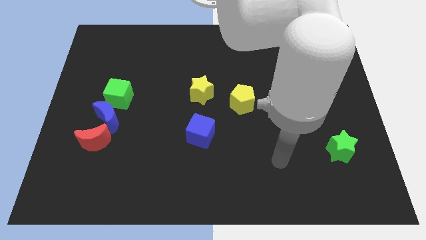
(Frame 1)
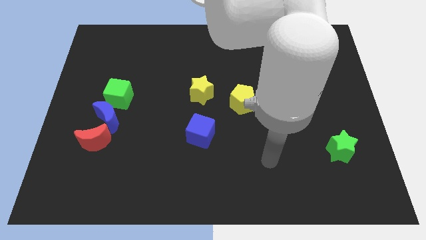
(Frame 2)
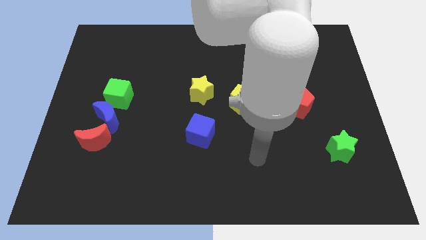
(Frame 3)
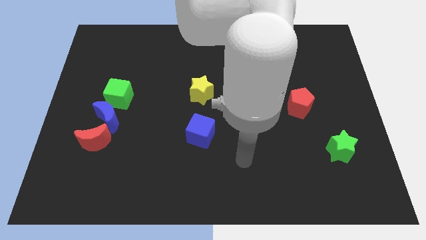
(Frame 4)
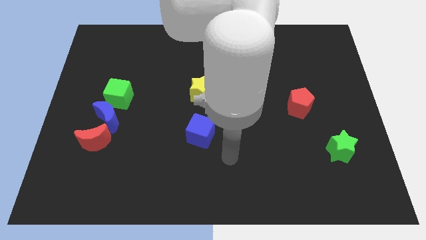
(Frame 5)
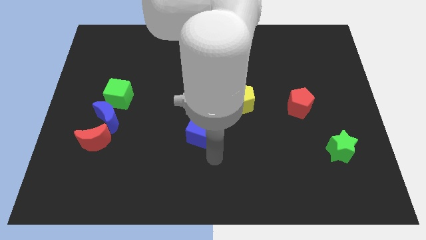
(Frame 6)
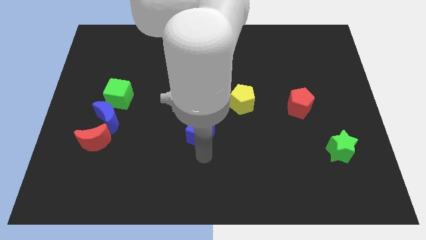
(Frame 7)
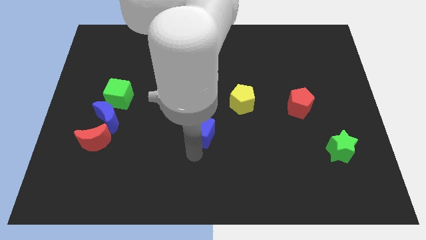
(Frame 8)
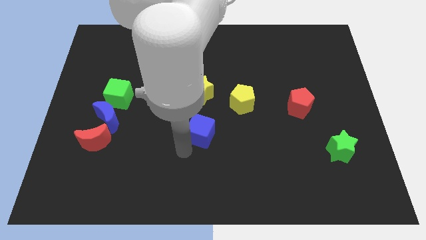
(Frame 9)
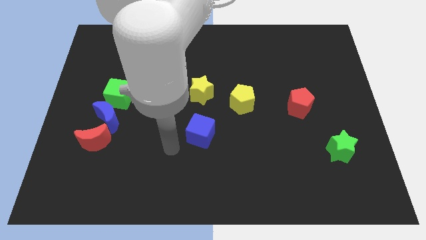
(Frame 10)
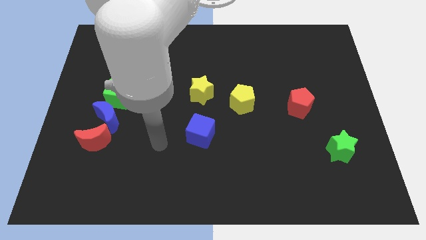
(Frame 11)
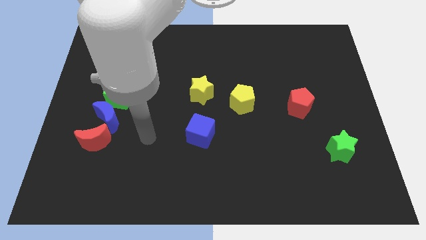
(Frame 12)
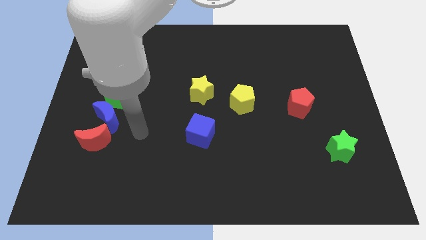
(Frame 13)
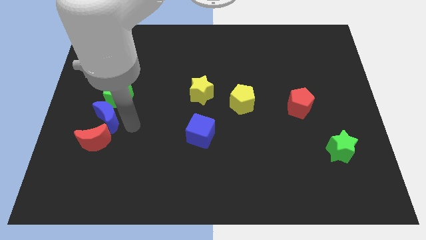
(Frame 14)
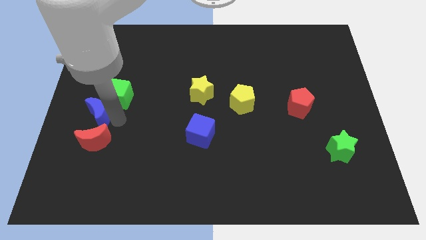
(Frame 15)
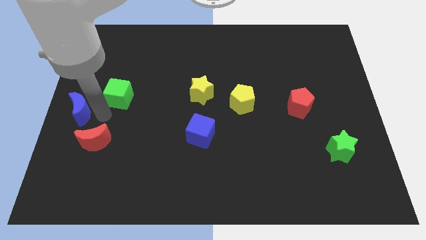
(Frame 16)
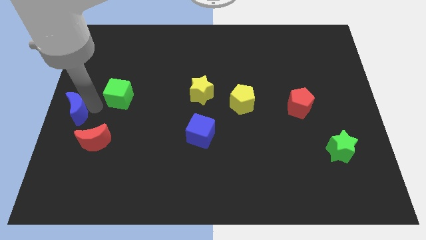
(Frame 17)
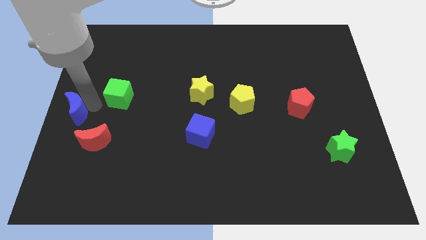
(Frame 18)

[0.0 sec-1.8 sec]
move the green cube away from the blue moon

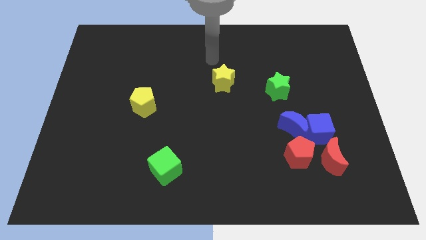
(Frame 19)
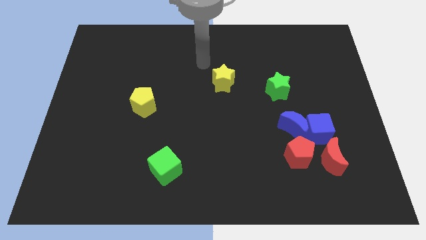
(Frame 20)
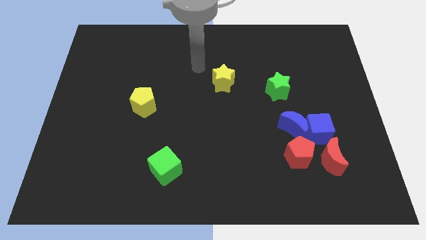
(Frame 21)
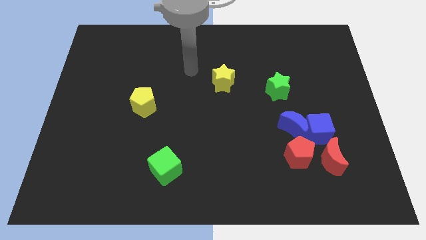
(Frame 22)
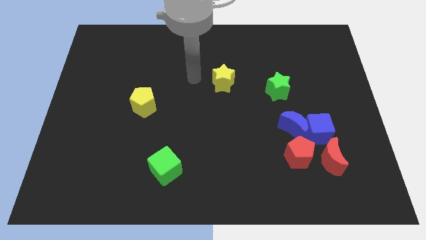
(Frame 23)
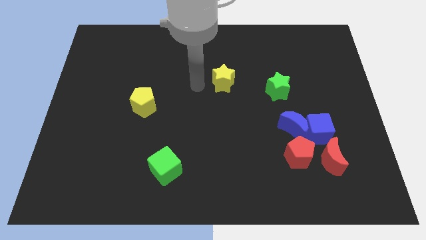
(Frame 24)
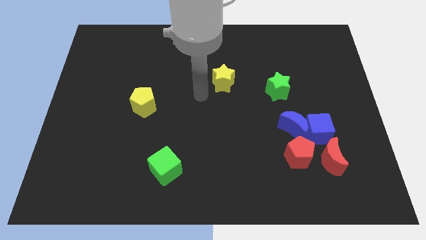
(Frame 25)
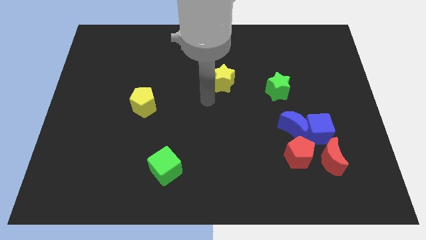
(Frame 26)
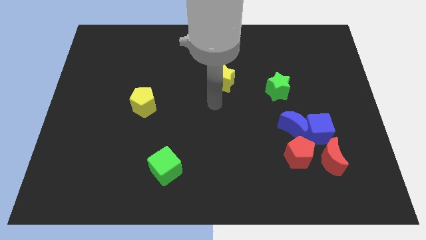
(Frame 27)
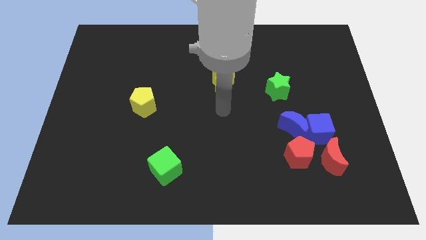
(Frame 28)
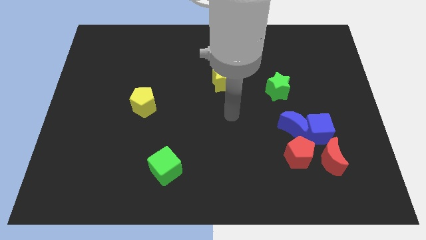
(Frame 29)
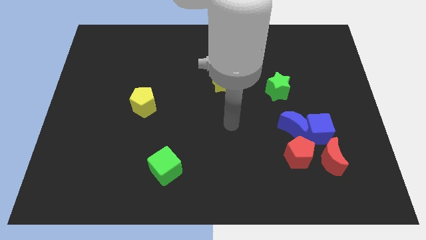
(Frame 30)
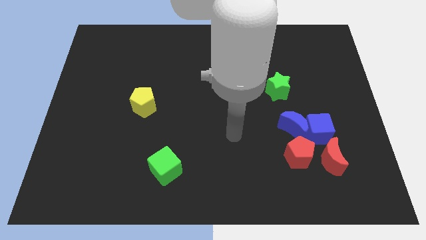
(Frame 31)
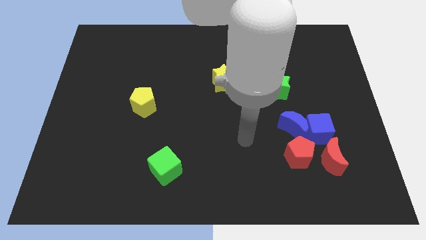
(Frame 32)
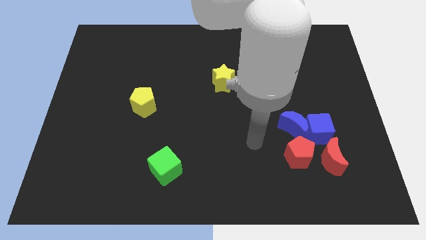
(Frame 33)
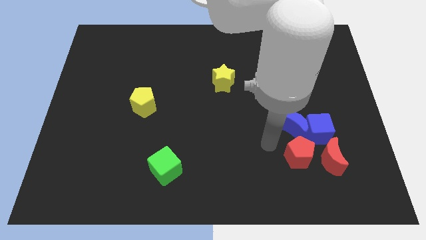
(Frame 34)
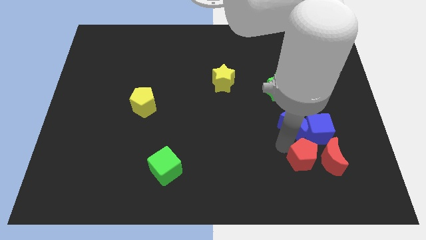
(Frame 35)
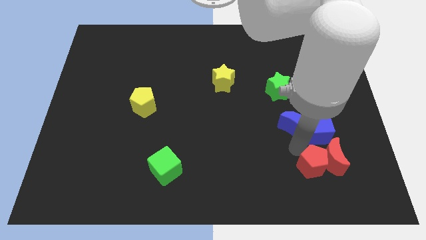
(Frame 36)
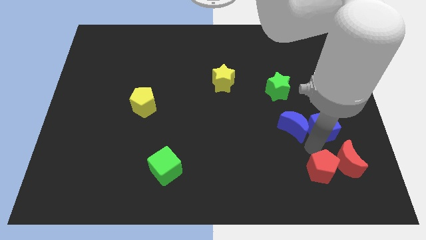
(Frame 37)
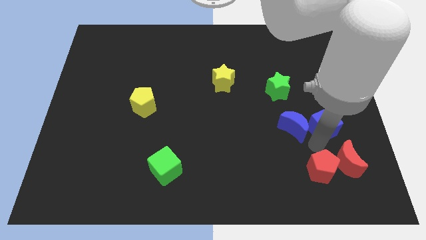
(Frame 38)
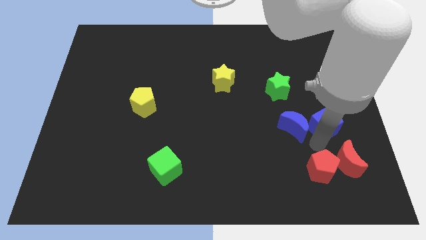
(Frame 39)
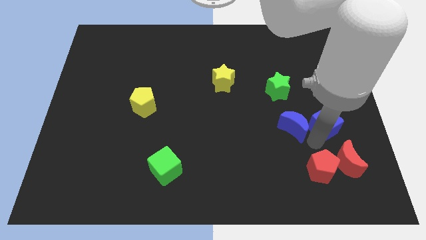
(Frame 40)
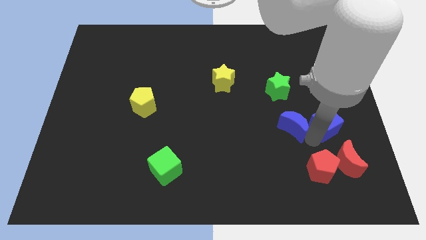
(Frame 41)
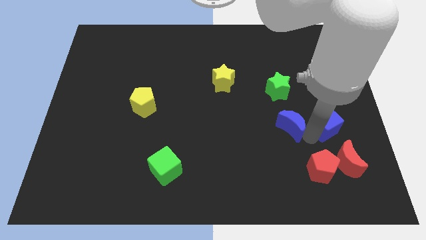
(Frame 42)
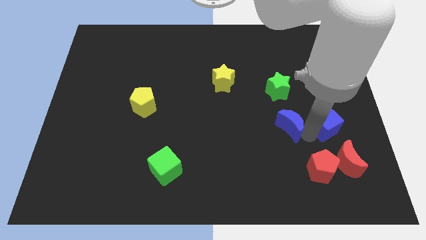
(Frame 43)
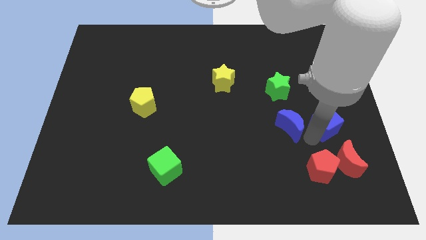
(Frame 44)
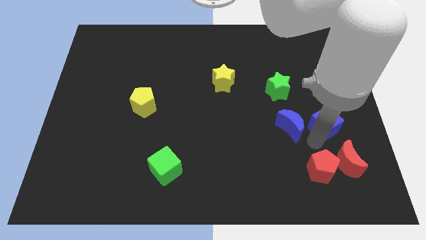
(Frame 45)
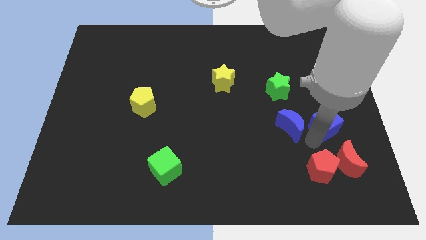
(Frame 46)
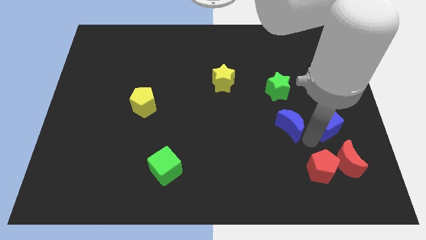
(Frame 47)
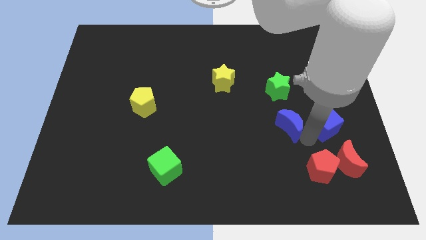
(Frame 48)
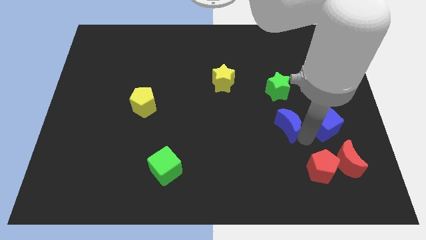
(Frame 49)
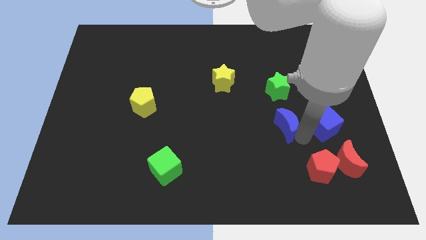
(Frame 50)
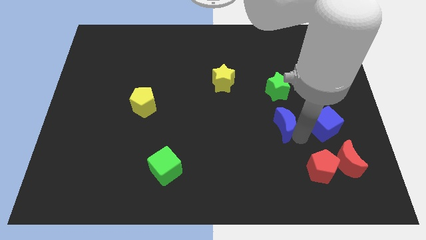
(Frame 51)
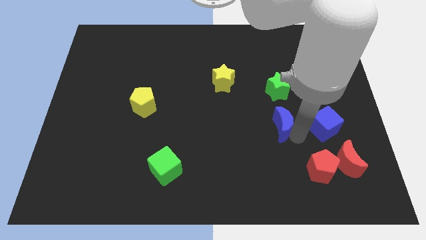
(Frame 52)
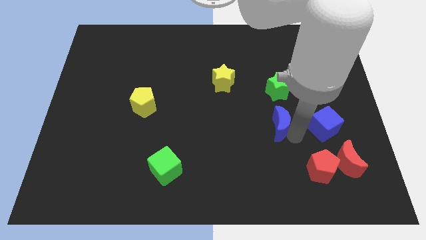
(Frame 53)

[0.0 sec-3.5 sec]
move the blue moon away from the blue cube and red pentagon

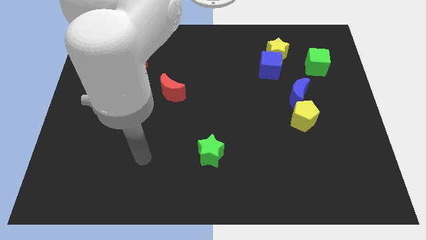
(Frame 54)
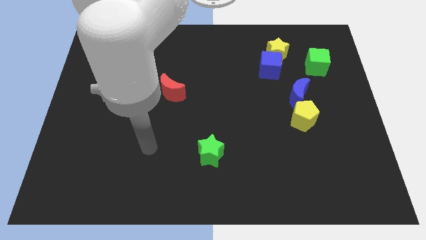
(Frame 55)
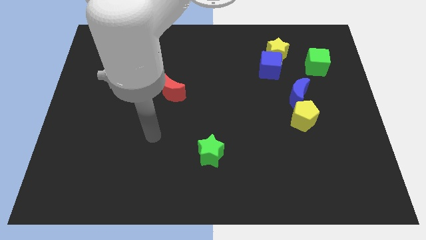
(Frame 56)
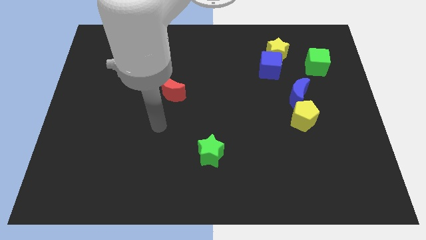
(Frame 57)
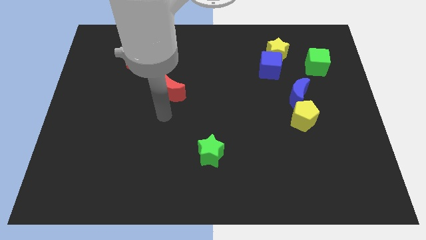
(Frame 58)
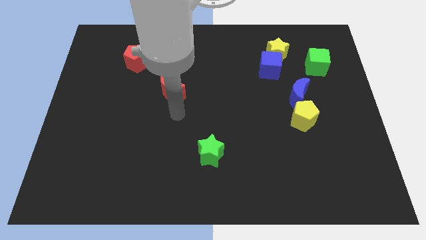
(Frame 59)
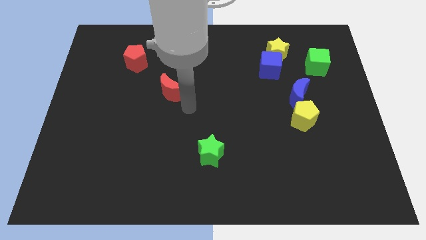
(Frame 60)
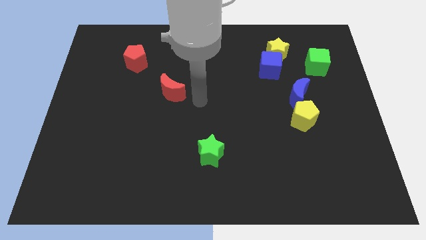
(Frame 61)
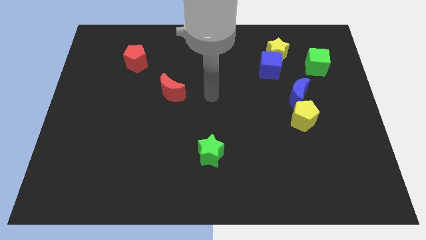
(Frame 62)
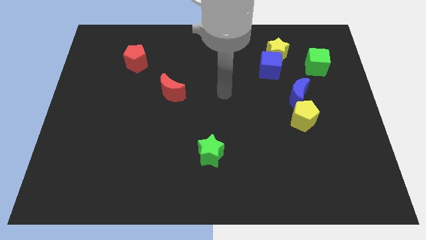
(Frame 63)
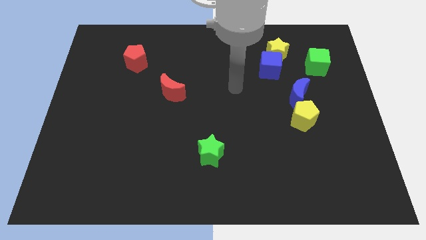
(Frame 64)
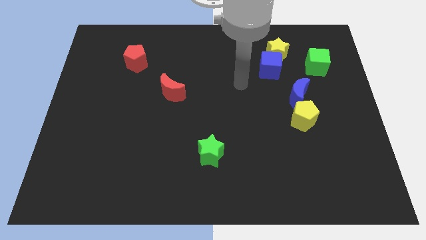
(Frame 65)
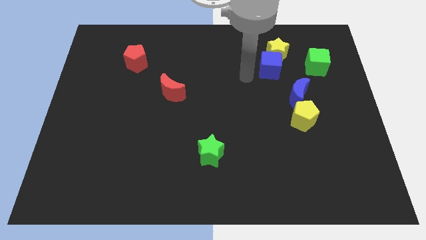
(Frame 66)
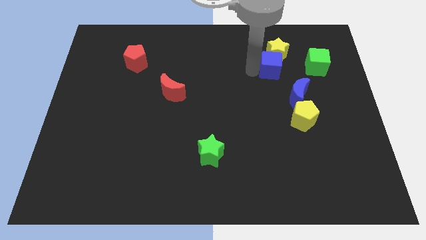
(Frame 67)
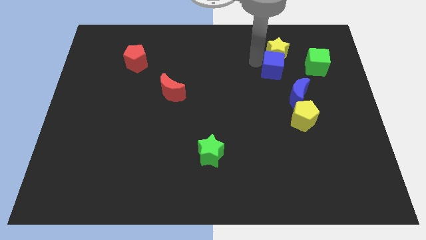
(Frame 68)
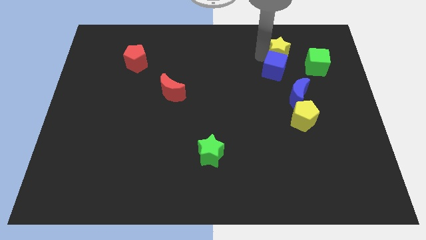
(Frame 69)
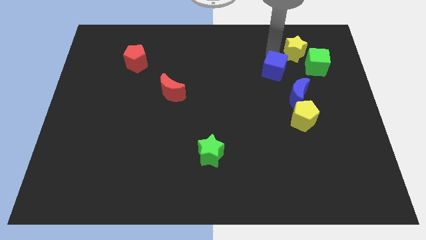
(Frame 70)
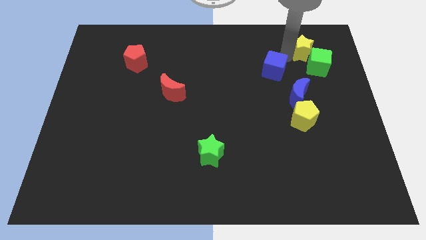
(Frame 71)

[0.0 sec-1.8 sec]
separate the blue cube from the yellow star

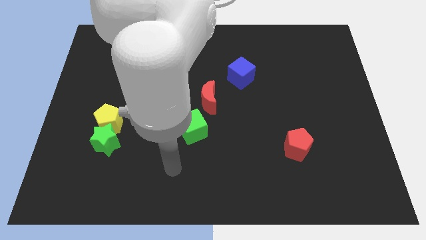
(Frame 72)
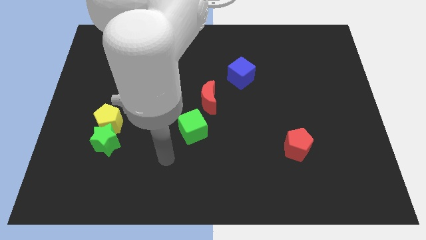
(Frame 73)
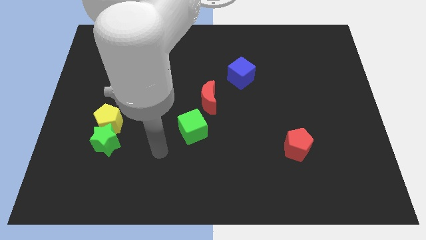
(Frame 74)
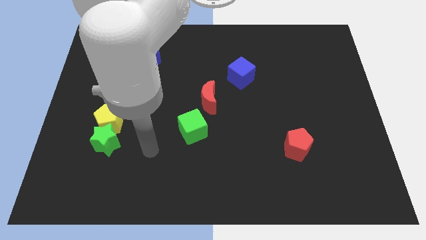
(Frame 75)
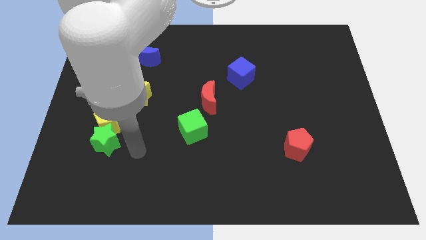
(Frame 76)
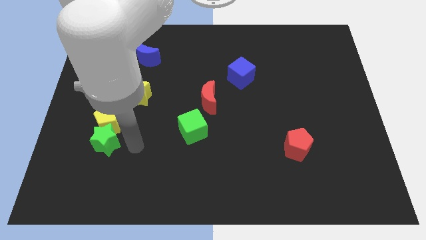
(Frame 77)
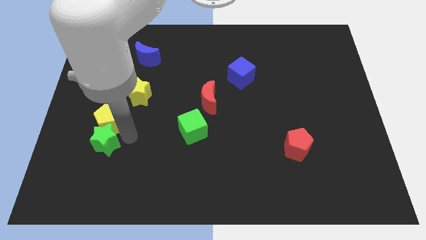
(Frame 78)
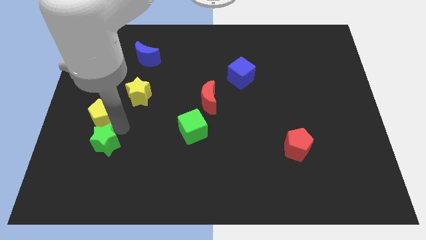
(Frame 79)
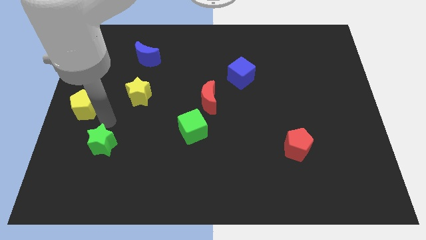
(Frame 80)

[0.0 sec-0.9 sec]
move the green star away from the yellow pentagon

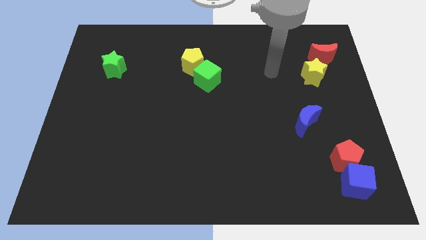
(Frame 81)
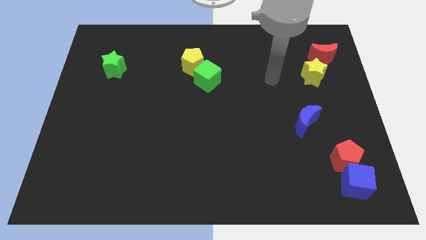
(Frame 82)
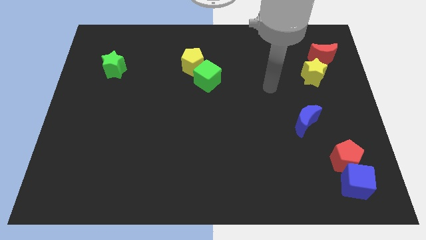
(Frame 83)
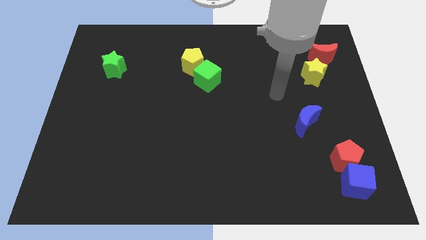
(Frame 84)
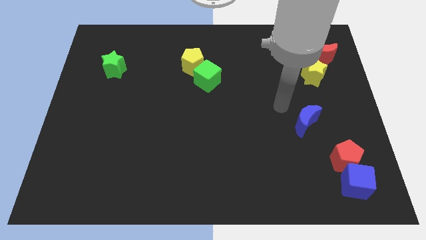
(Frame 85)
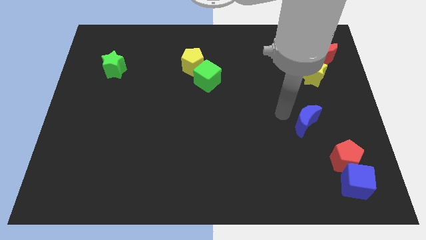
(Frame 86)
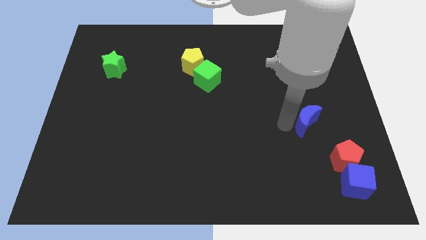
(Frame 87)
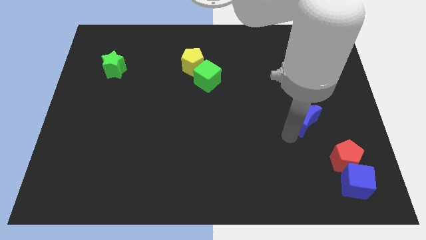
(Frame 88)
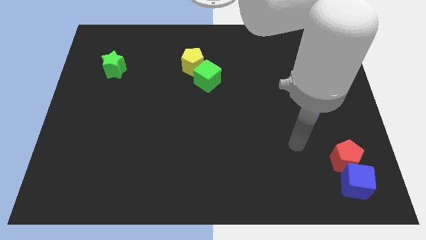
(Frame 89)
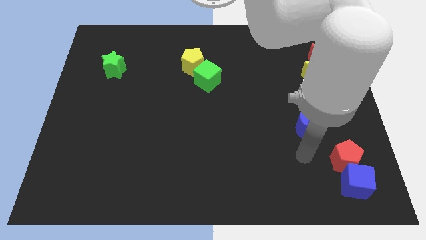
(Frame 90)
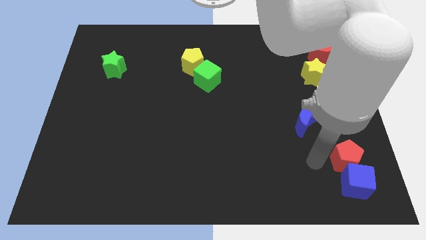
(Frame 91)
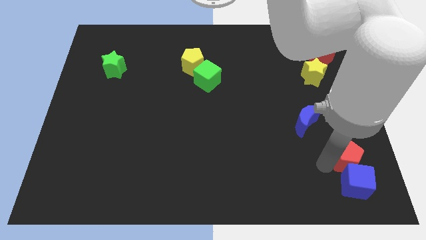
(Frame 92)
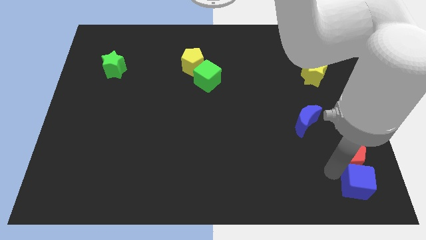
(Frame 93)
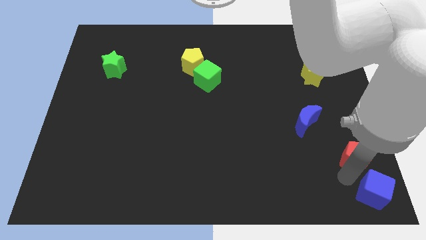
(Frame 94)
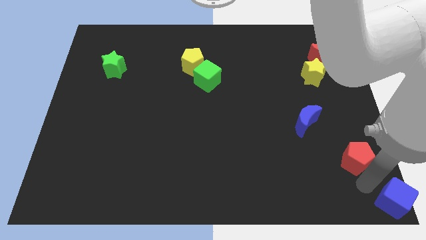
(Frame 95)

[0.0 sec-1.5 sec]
separate the red pentagon from the blue cube
